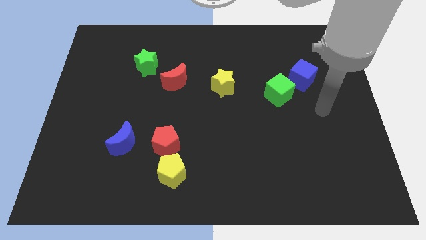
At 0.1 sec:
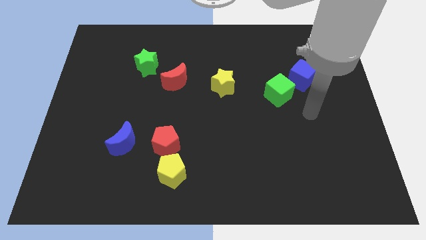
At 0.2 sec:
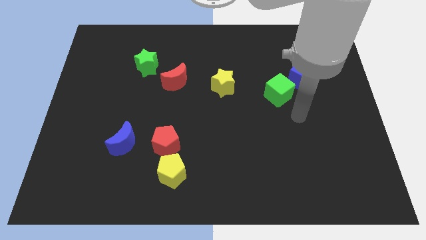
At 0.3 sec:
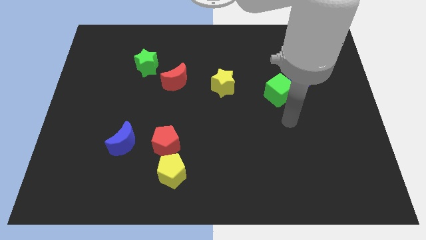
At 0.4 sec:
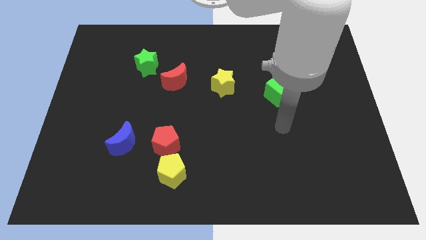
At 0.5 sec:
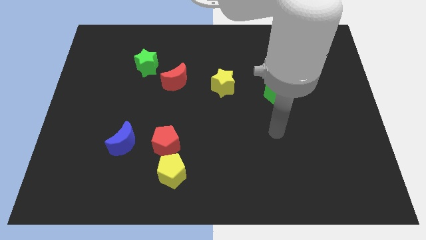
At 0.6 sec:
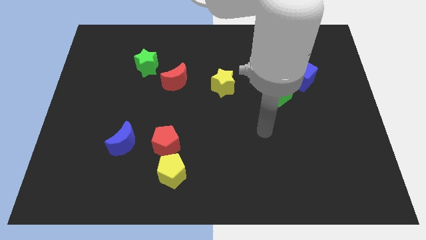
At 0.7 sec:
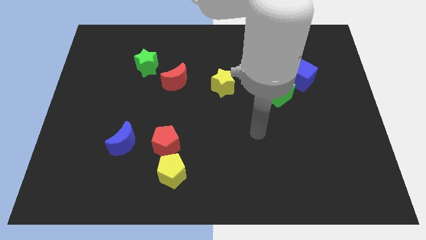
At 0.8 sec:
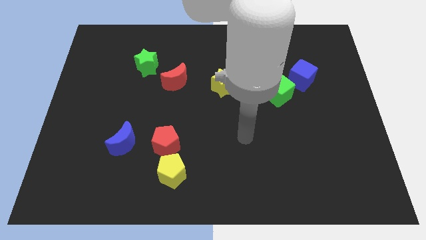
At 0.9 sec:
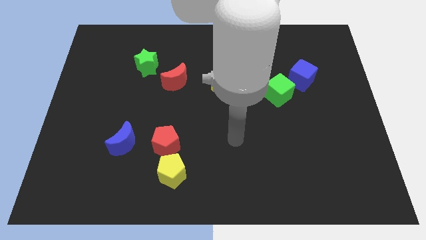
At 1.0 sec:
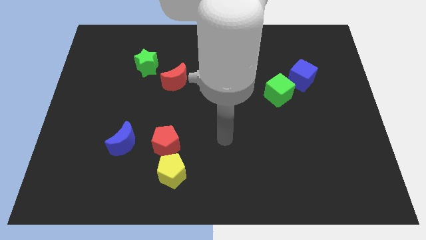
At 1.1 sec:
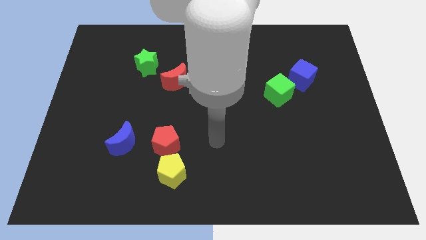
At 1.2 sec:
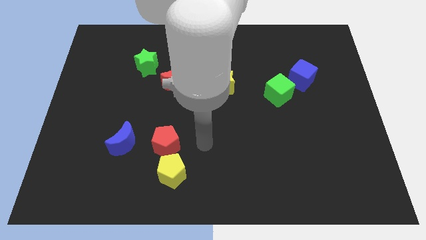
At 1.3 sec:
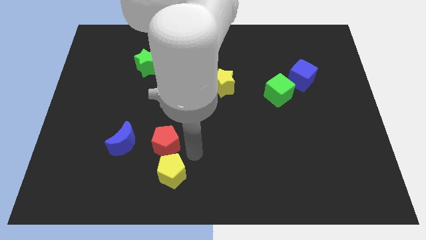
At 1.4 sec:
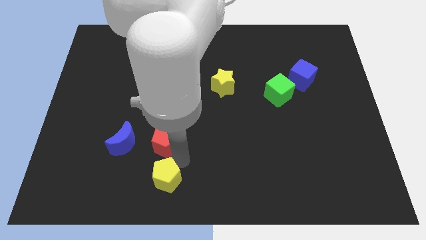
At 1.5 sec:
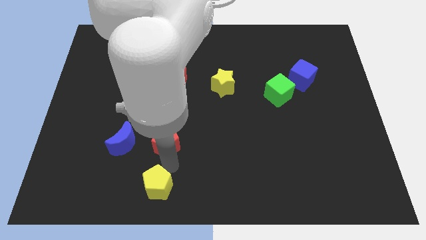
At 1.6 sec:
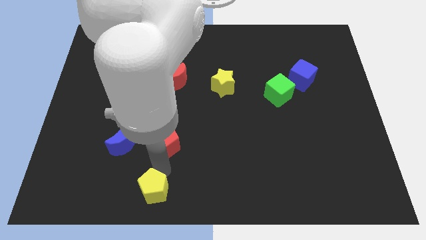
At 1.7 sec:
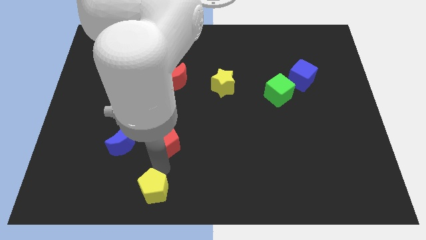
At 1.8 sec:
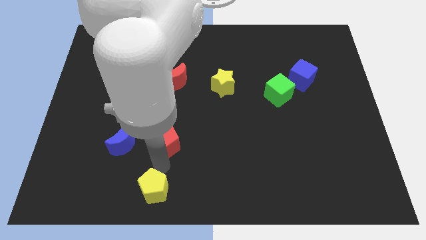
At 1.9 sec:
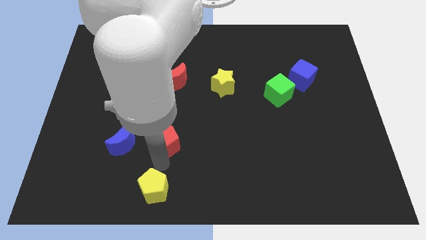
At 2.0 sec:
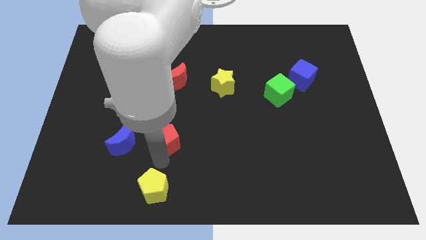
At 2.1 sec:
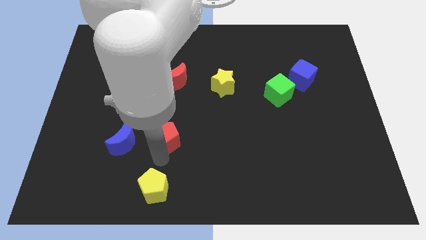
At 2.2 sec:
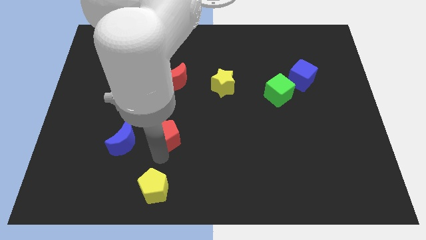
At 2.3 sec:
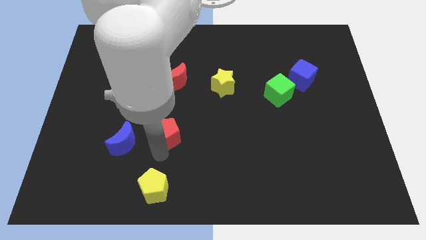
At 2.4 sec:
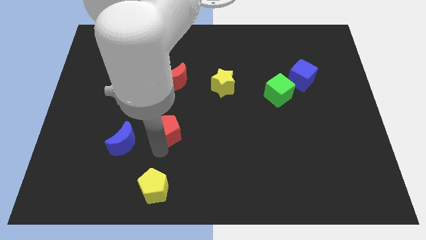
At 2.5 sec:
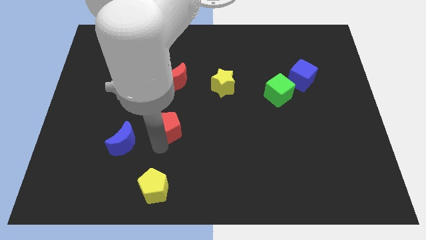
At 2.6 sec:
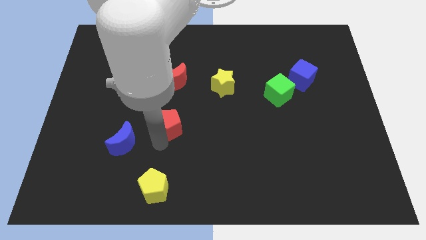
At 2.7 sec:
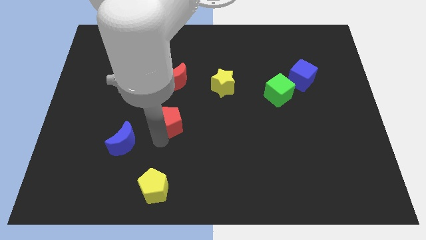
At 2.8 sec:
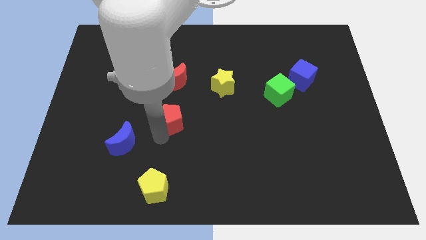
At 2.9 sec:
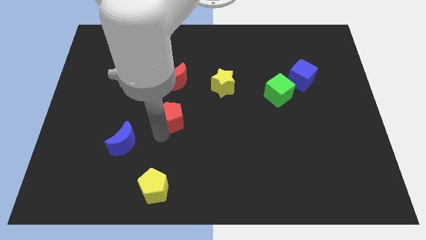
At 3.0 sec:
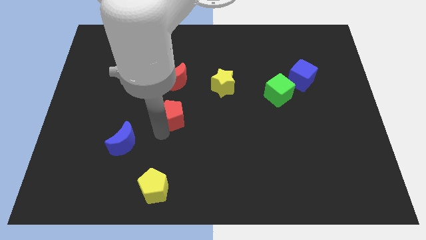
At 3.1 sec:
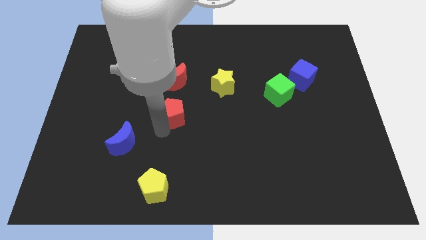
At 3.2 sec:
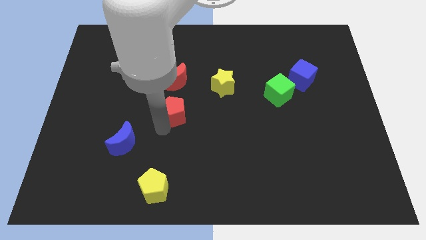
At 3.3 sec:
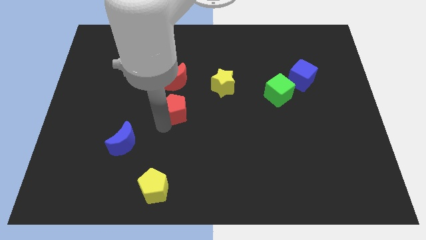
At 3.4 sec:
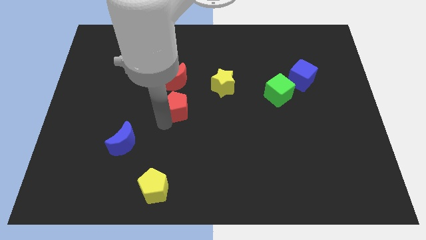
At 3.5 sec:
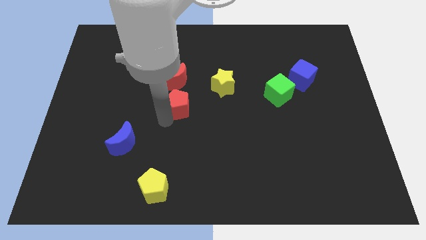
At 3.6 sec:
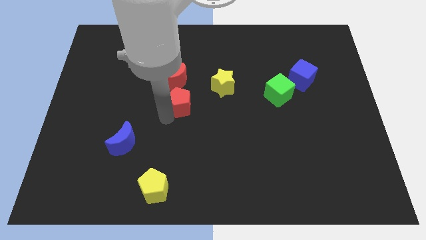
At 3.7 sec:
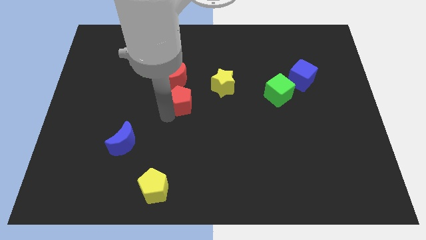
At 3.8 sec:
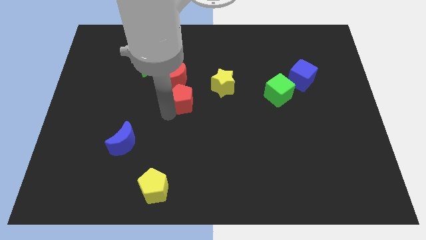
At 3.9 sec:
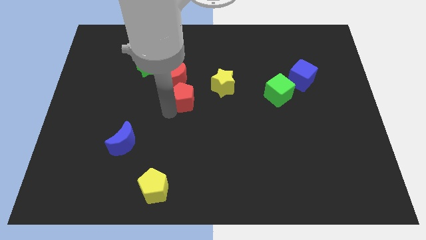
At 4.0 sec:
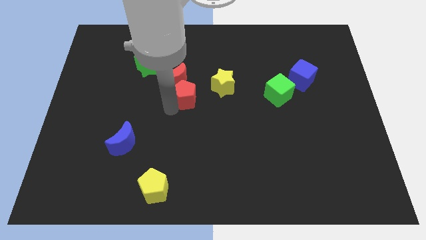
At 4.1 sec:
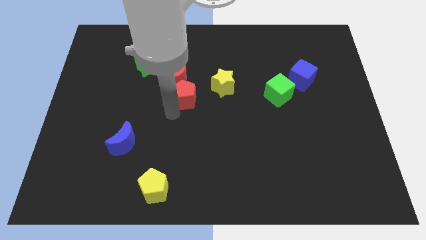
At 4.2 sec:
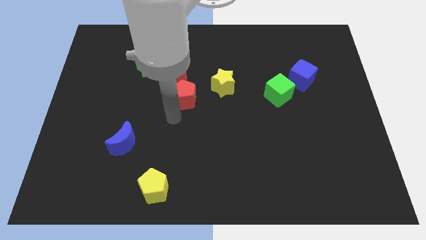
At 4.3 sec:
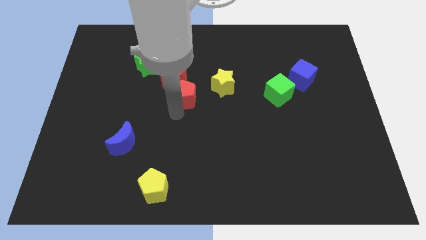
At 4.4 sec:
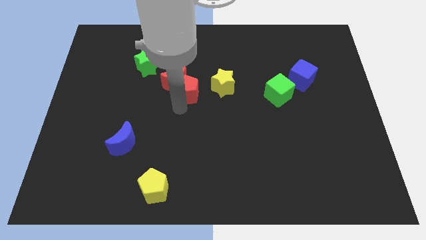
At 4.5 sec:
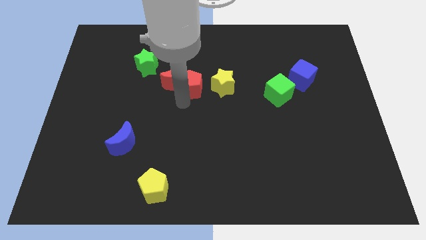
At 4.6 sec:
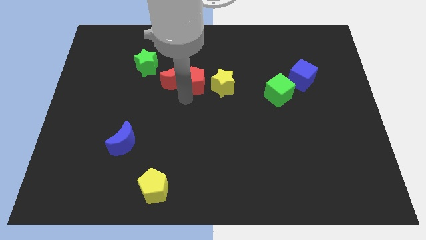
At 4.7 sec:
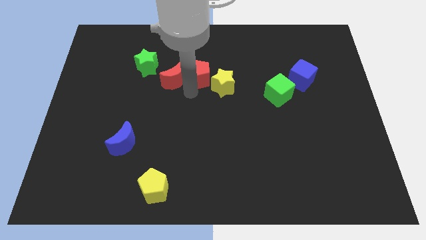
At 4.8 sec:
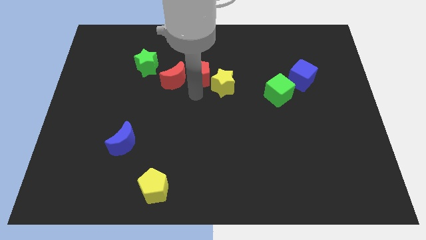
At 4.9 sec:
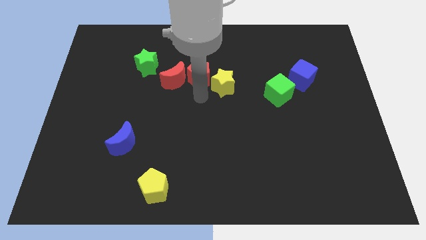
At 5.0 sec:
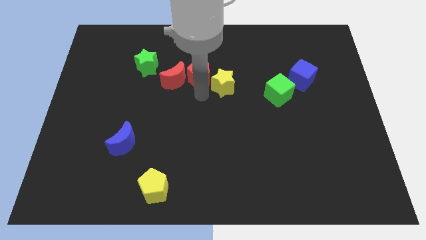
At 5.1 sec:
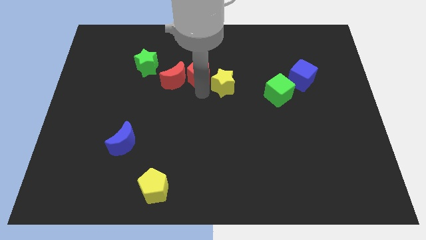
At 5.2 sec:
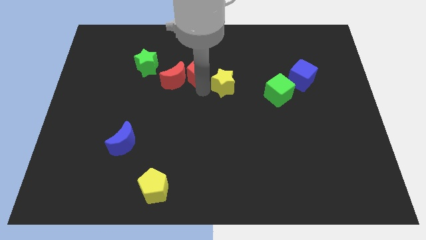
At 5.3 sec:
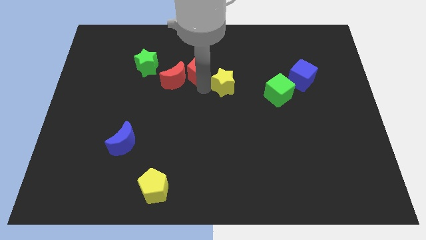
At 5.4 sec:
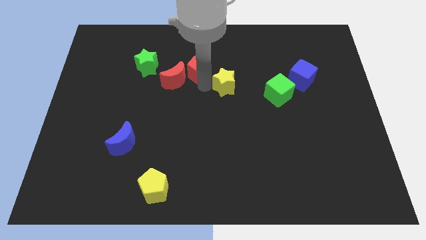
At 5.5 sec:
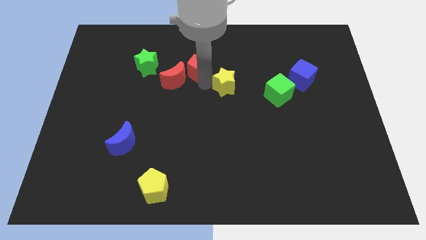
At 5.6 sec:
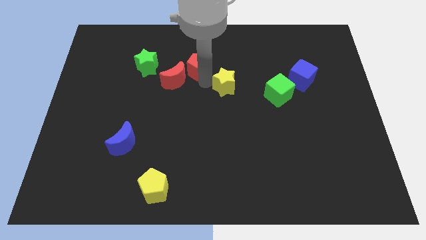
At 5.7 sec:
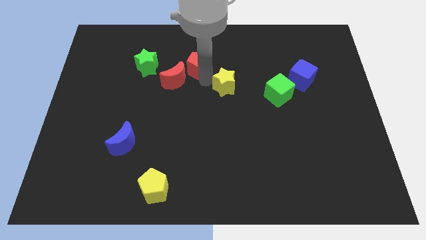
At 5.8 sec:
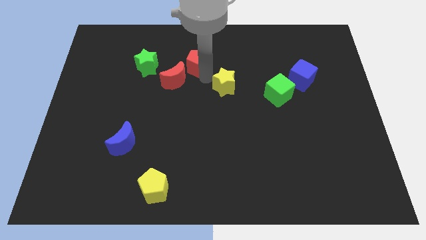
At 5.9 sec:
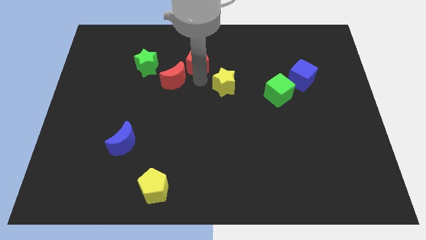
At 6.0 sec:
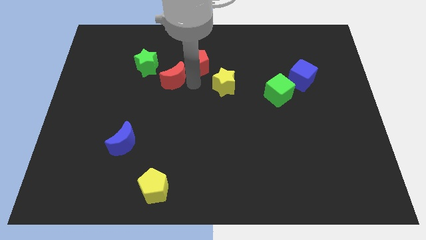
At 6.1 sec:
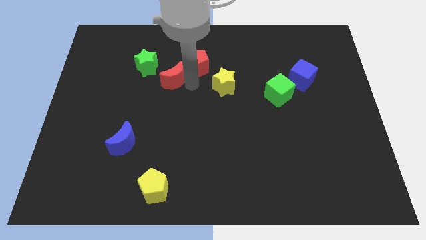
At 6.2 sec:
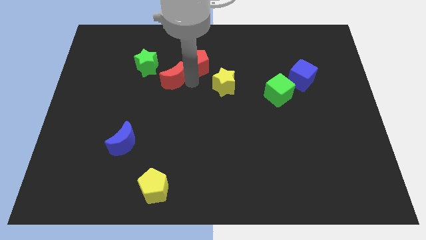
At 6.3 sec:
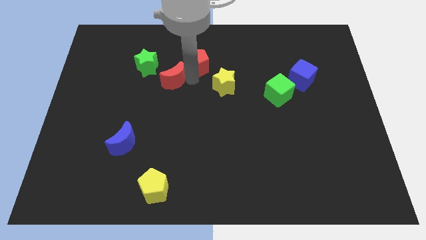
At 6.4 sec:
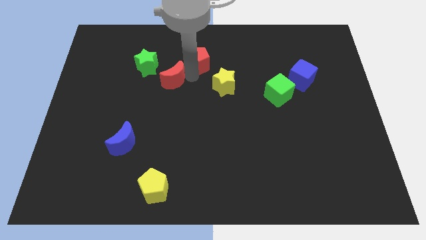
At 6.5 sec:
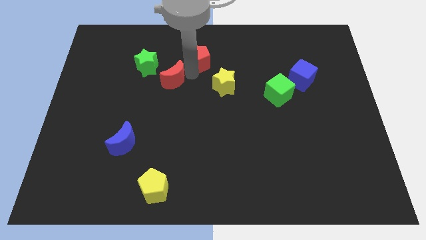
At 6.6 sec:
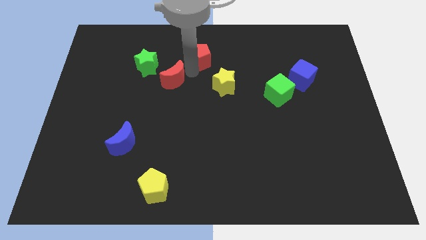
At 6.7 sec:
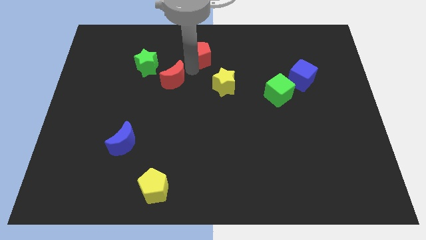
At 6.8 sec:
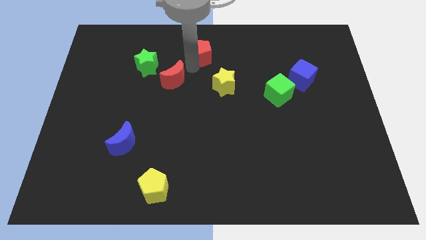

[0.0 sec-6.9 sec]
slide the red pentagon to the top side
